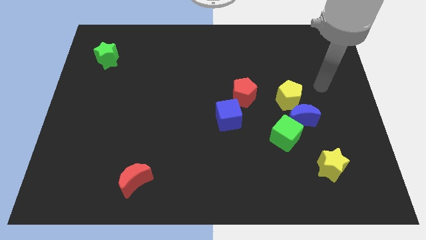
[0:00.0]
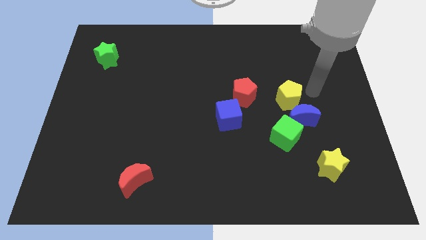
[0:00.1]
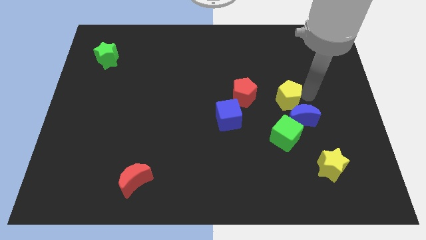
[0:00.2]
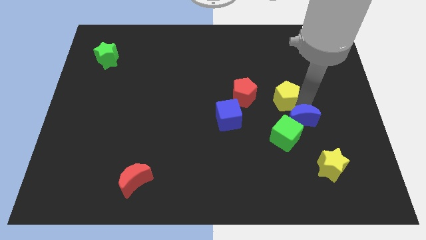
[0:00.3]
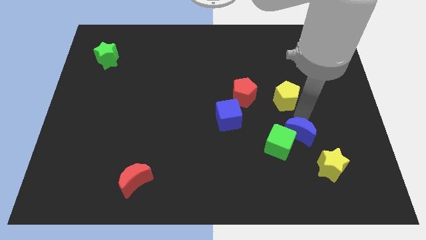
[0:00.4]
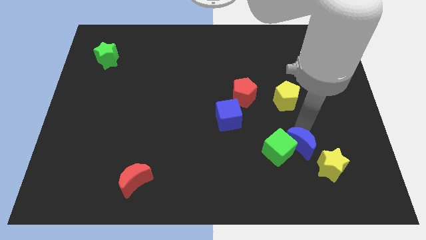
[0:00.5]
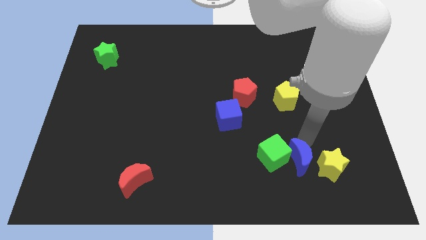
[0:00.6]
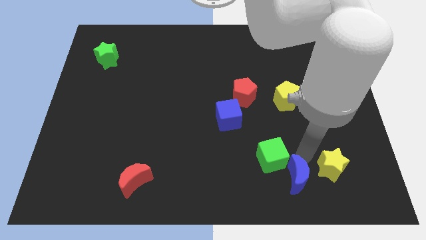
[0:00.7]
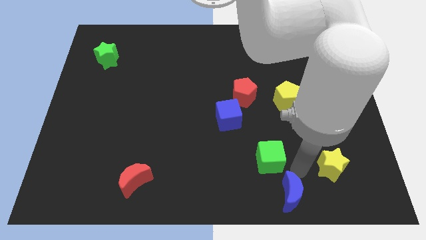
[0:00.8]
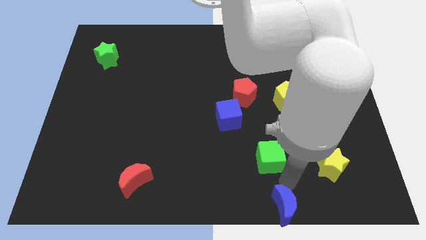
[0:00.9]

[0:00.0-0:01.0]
separate the green cube from the blue moon

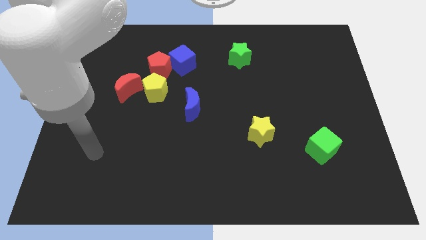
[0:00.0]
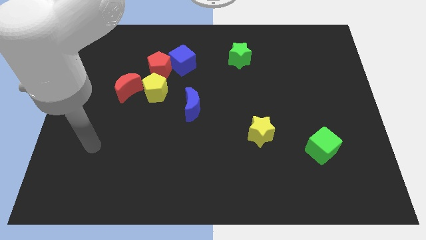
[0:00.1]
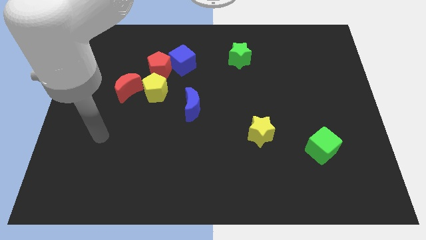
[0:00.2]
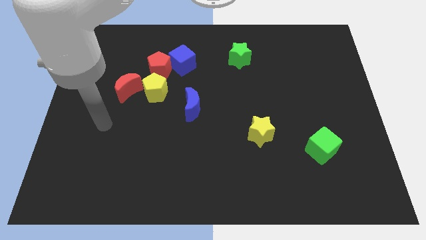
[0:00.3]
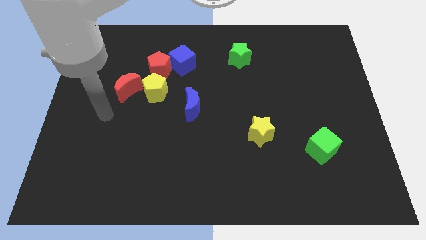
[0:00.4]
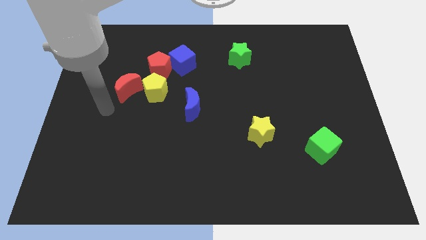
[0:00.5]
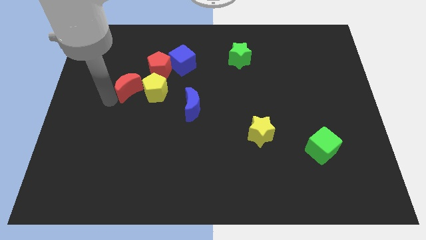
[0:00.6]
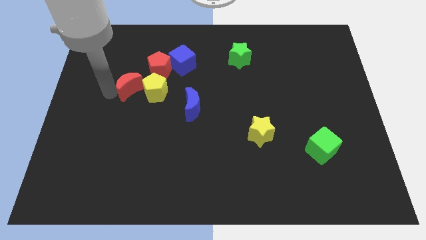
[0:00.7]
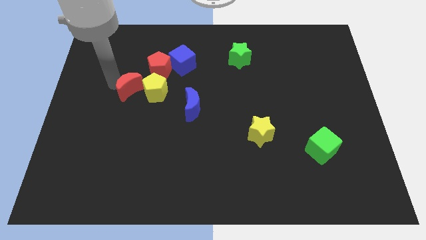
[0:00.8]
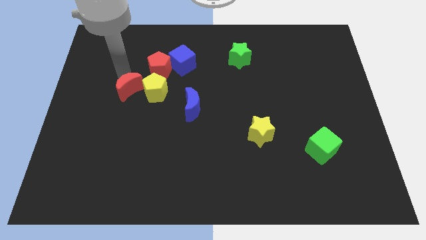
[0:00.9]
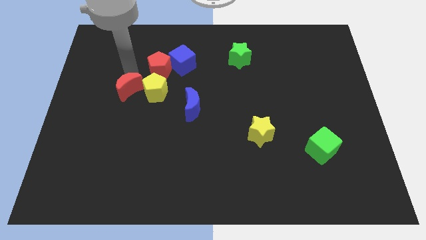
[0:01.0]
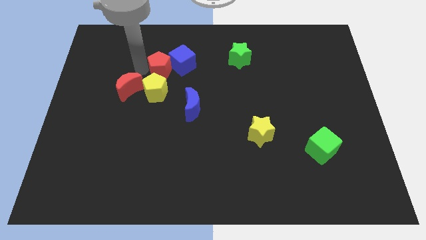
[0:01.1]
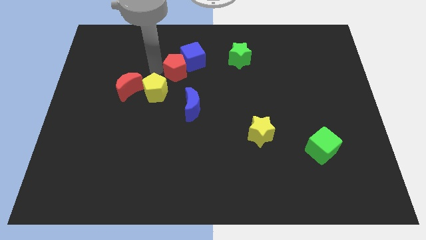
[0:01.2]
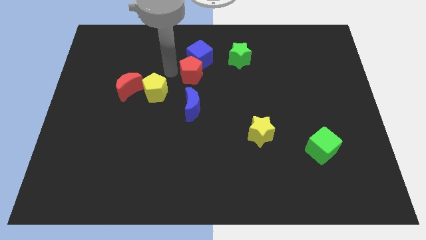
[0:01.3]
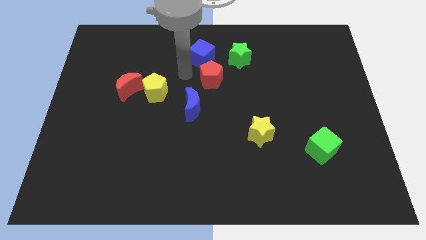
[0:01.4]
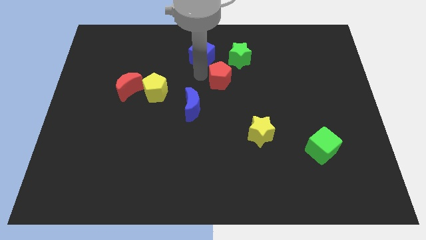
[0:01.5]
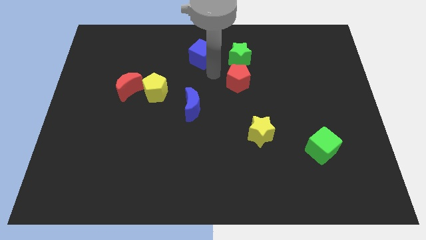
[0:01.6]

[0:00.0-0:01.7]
move the blue cube away from the red pentagon

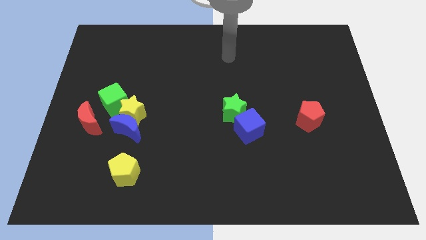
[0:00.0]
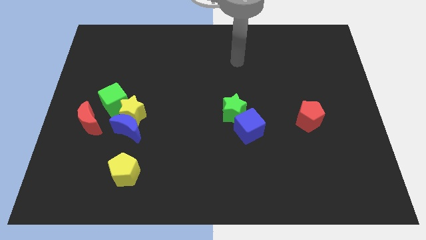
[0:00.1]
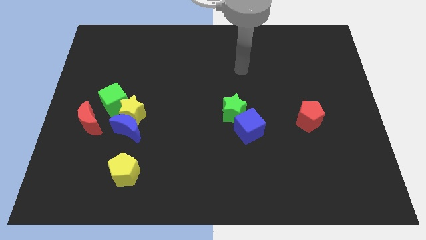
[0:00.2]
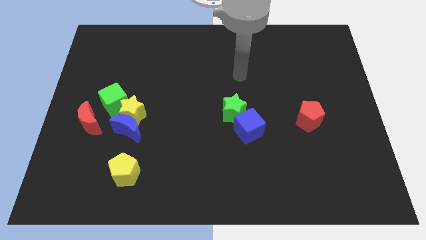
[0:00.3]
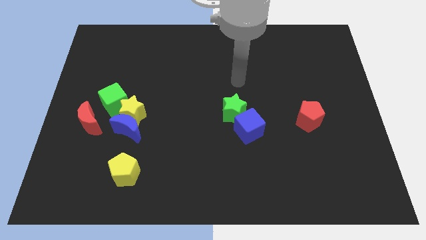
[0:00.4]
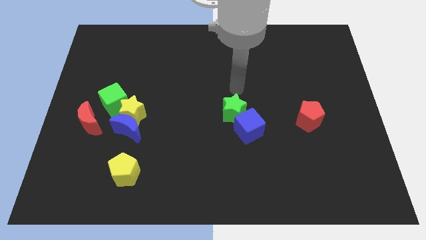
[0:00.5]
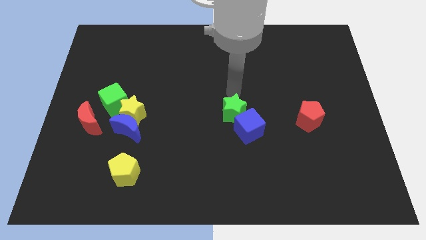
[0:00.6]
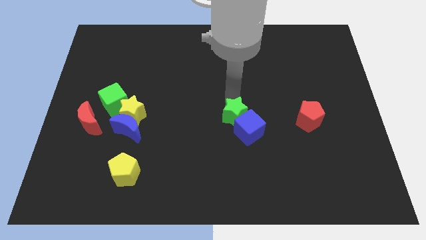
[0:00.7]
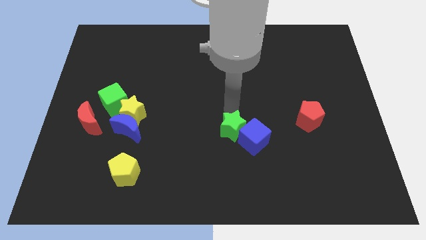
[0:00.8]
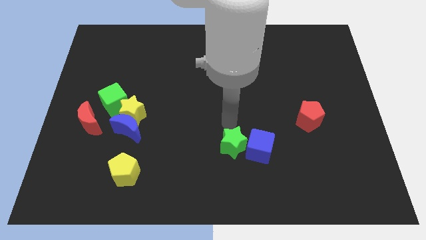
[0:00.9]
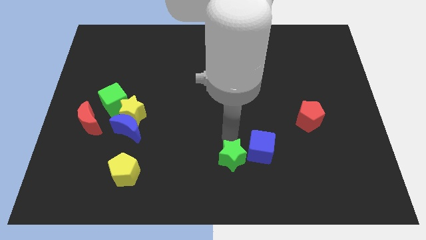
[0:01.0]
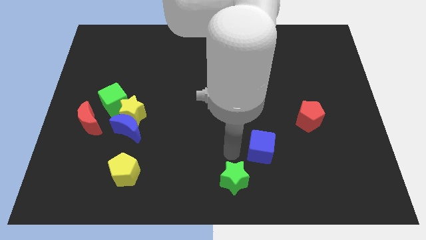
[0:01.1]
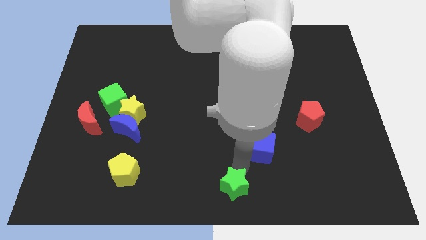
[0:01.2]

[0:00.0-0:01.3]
pull the blue cube apart from the green star

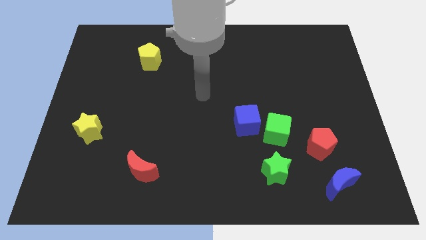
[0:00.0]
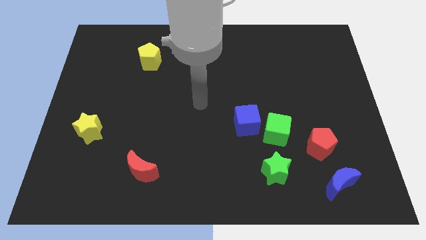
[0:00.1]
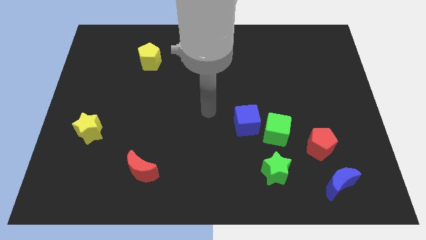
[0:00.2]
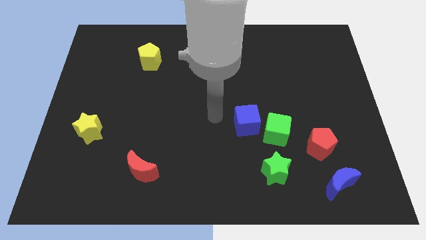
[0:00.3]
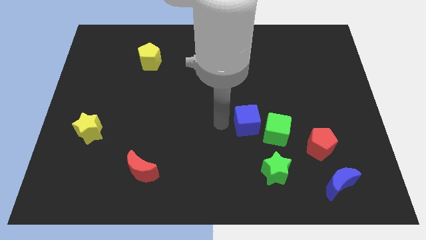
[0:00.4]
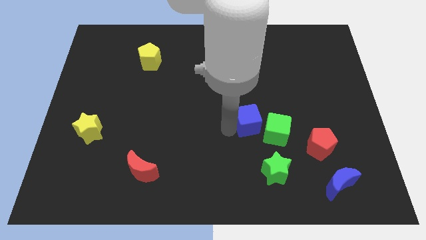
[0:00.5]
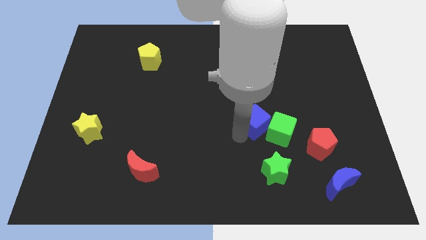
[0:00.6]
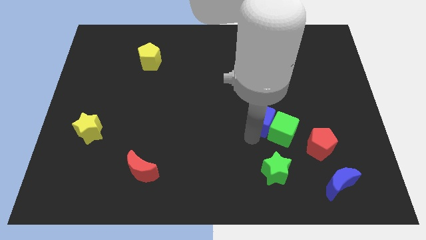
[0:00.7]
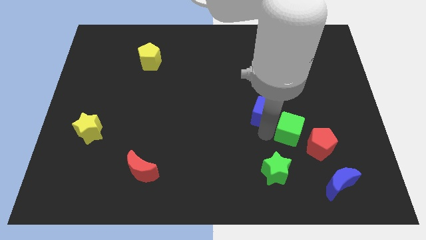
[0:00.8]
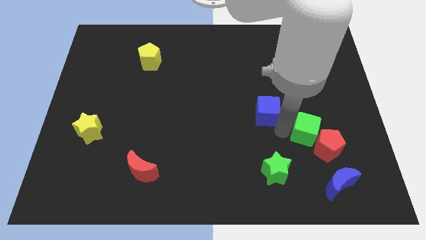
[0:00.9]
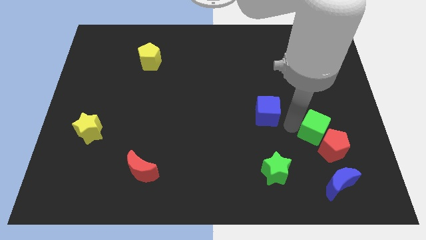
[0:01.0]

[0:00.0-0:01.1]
pull the blue cube apart from the green cube

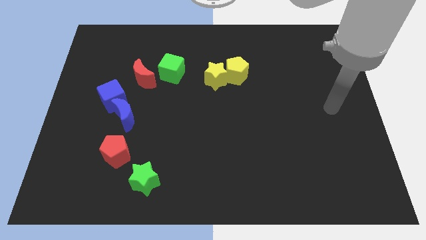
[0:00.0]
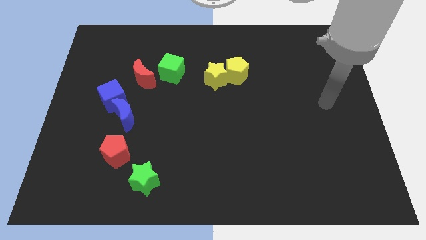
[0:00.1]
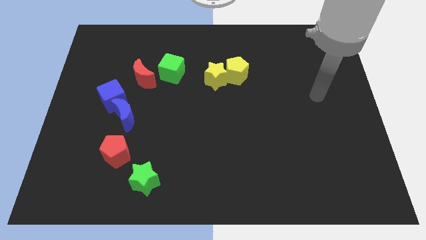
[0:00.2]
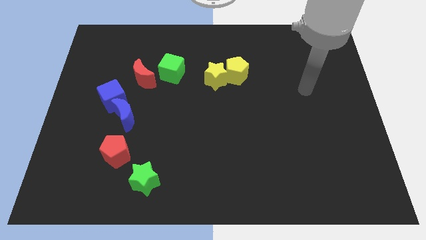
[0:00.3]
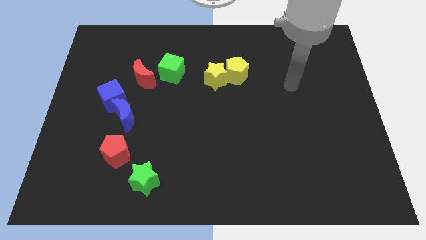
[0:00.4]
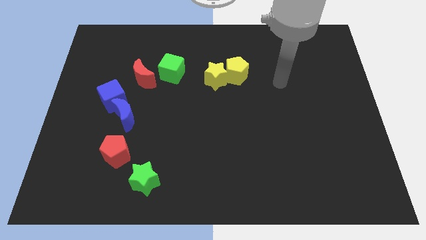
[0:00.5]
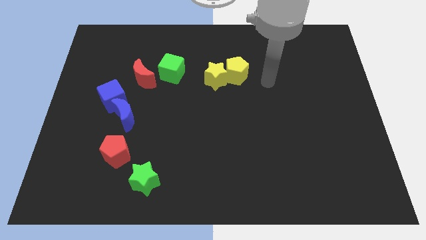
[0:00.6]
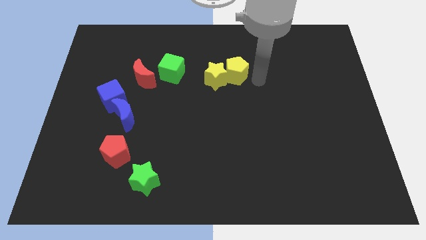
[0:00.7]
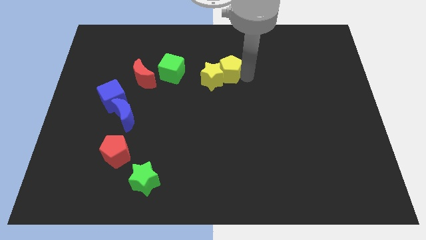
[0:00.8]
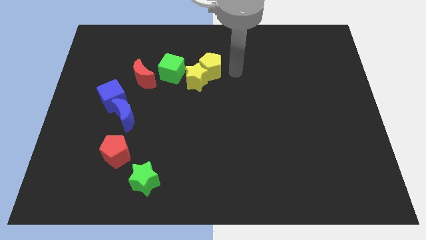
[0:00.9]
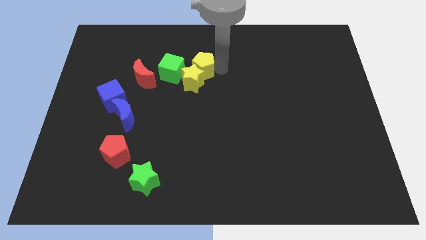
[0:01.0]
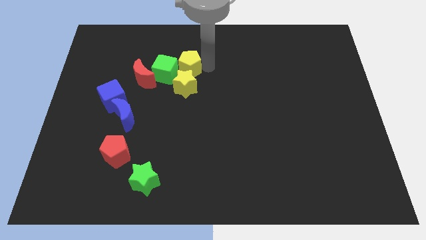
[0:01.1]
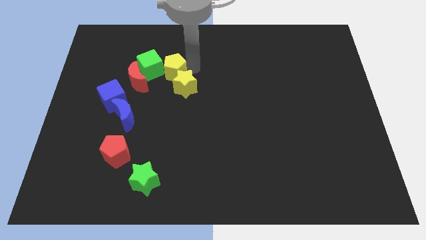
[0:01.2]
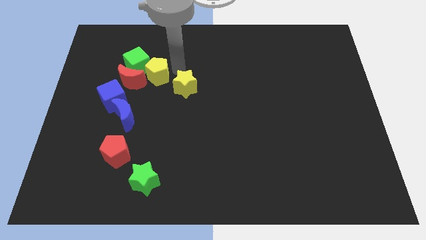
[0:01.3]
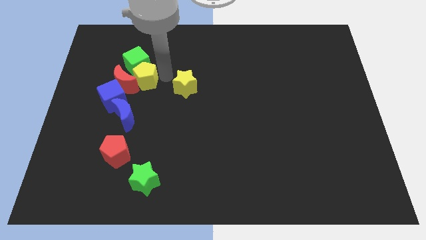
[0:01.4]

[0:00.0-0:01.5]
separate the yellow star from the yellow pentagon

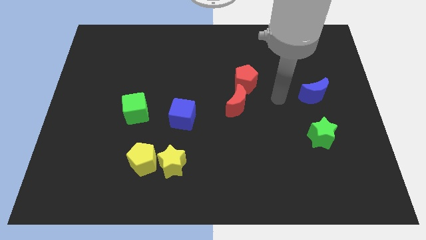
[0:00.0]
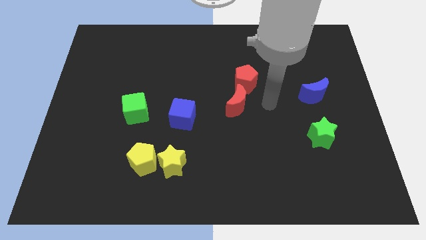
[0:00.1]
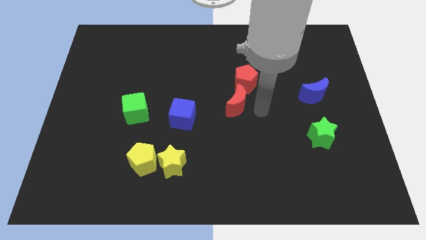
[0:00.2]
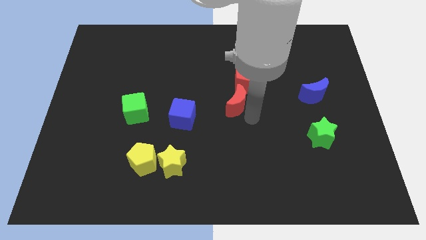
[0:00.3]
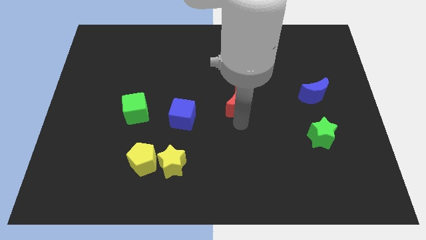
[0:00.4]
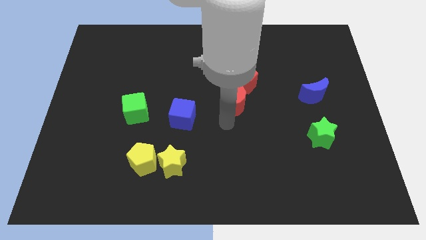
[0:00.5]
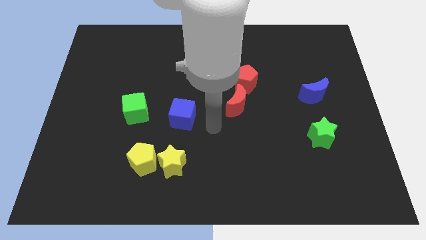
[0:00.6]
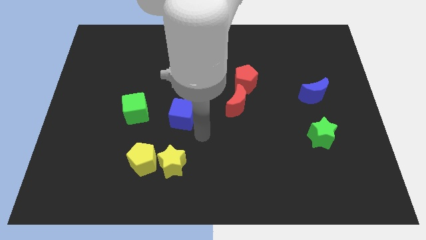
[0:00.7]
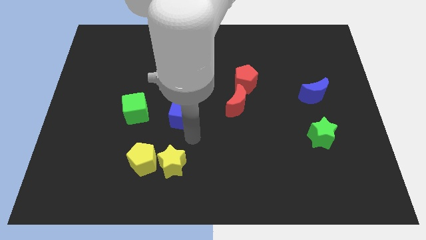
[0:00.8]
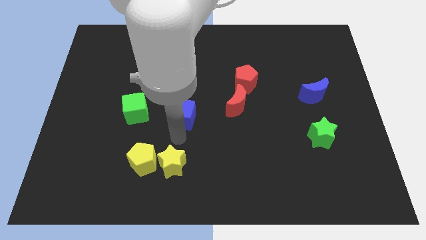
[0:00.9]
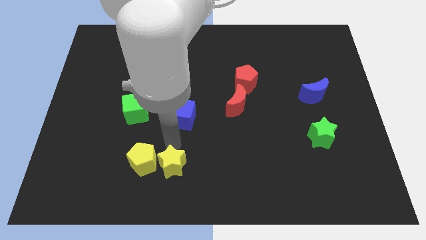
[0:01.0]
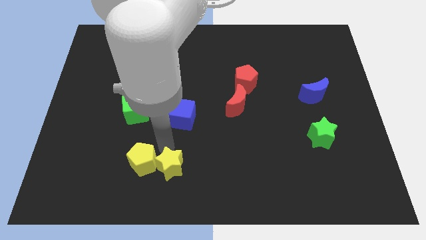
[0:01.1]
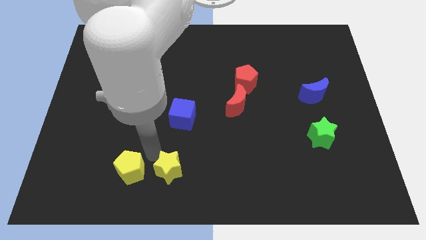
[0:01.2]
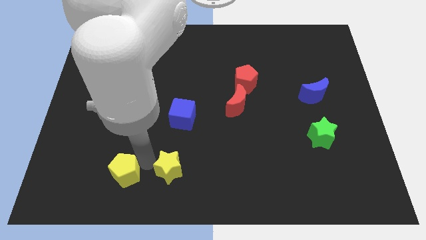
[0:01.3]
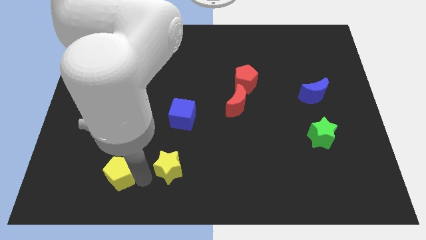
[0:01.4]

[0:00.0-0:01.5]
pull the yellow star apart from the yellow pentagon

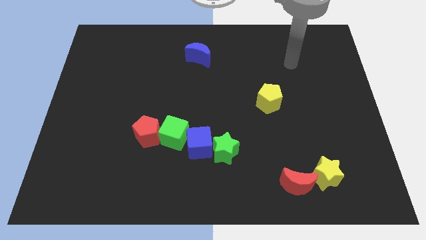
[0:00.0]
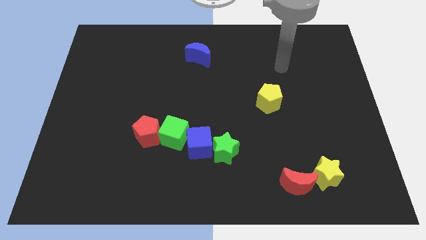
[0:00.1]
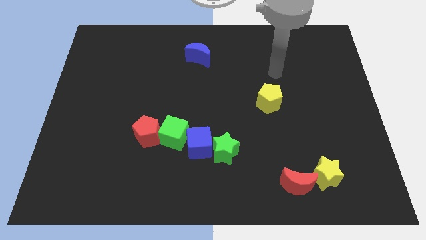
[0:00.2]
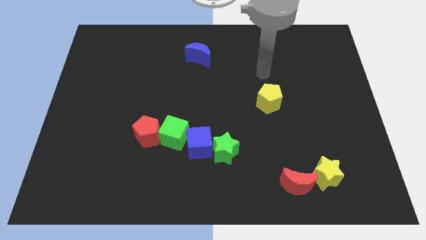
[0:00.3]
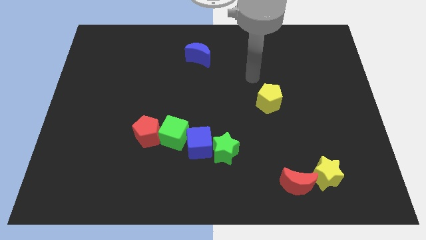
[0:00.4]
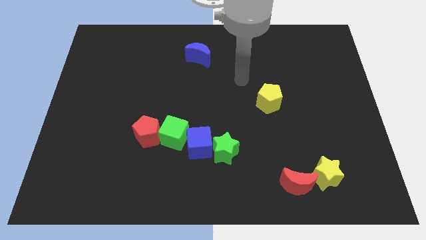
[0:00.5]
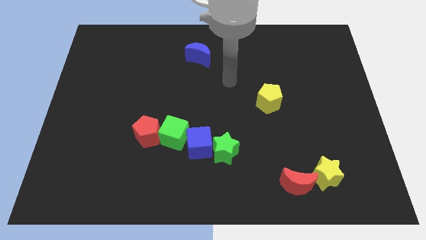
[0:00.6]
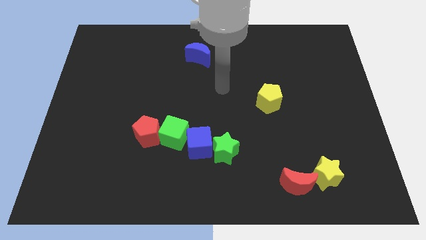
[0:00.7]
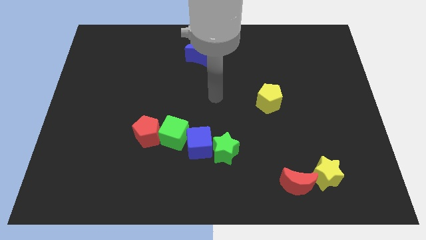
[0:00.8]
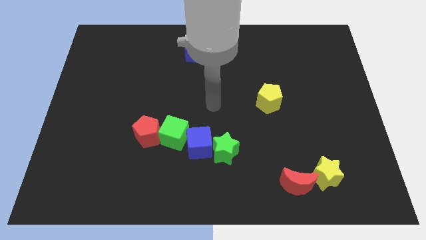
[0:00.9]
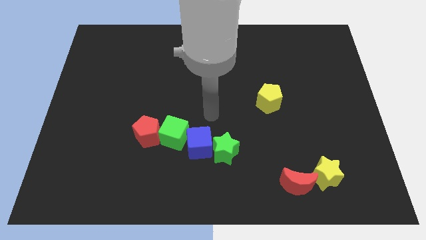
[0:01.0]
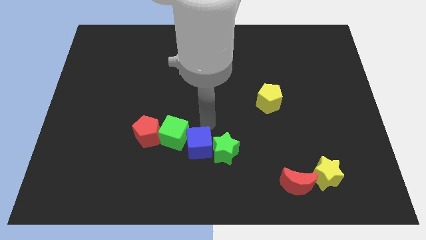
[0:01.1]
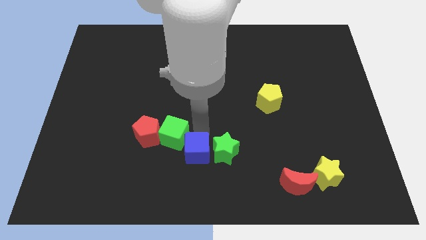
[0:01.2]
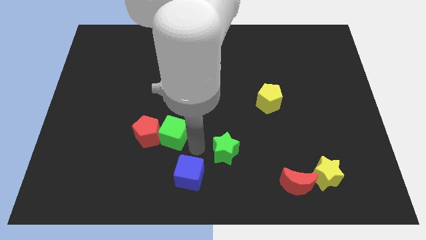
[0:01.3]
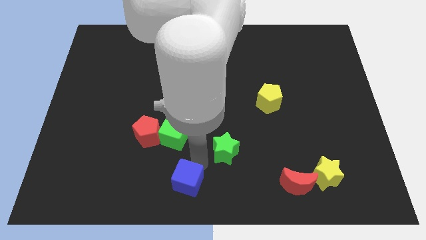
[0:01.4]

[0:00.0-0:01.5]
pull the green star apart from the blue cube
